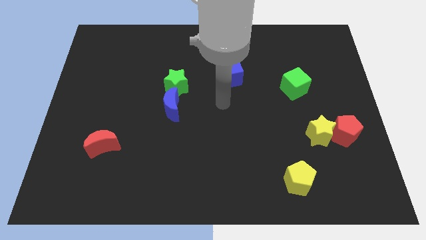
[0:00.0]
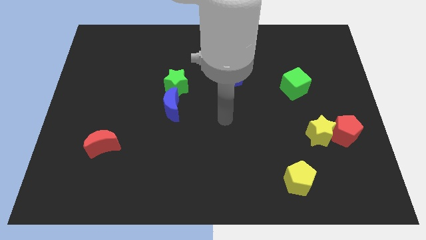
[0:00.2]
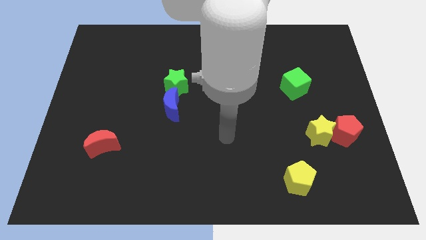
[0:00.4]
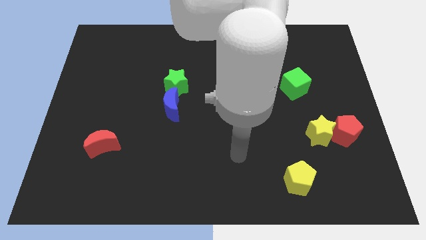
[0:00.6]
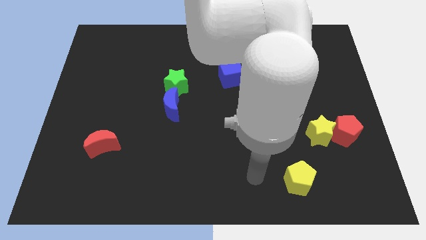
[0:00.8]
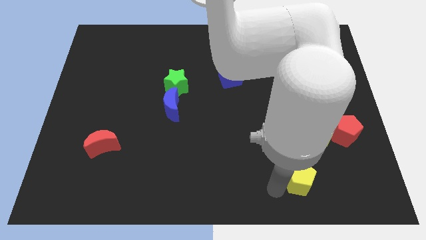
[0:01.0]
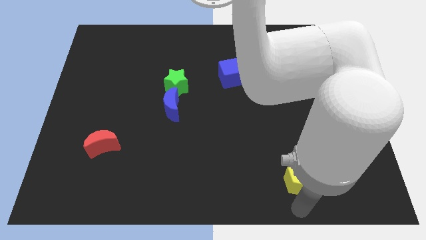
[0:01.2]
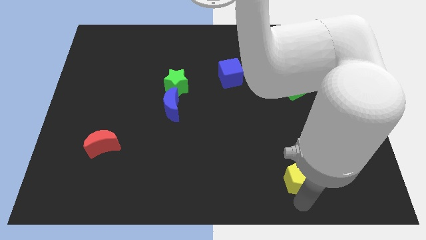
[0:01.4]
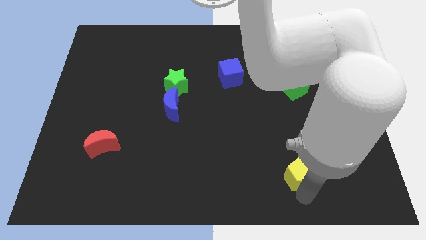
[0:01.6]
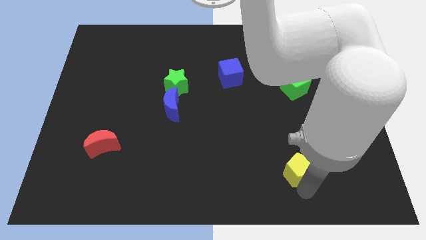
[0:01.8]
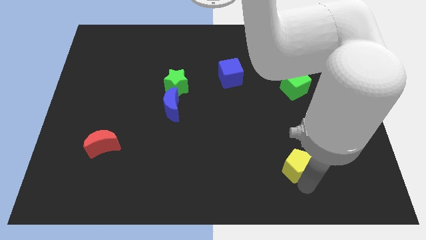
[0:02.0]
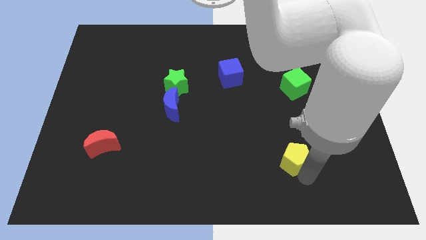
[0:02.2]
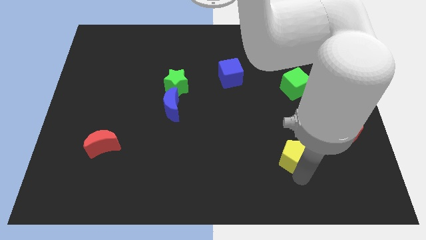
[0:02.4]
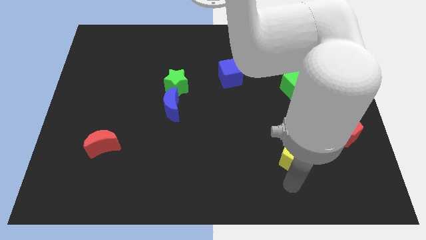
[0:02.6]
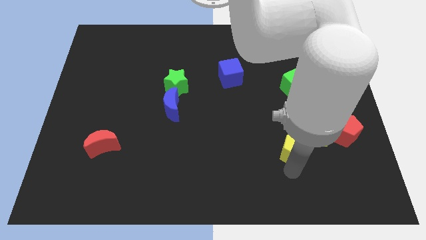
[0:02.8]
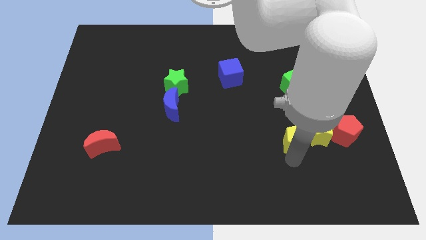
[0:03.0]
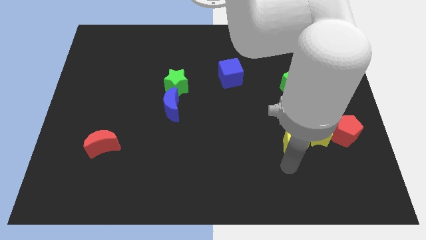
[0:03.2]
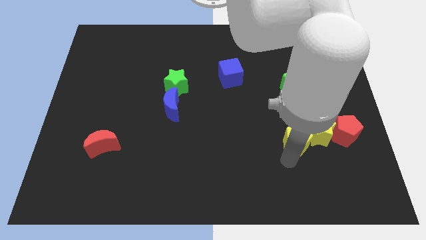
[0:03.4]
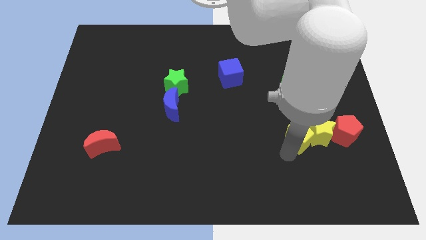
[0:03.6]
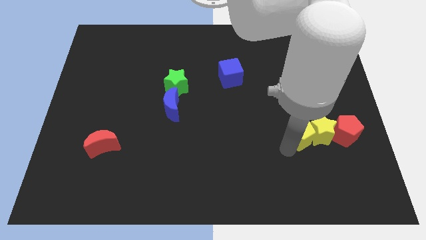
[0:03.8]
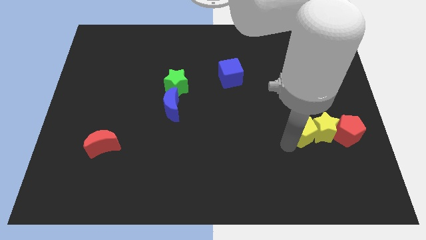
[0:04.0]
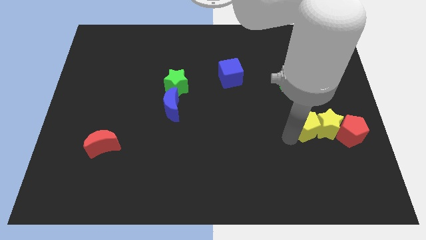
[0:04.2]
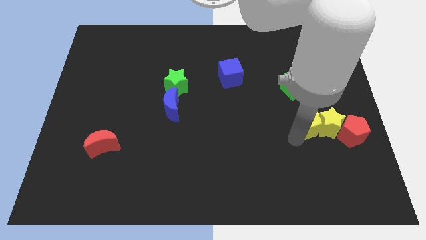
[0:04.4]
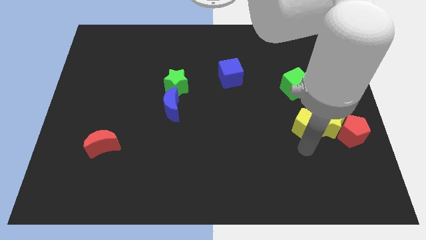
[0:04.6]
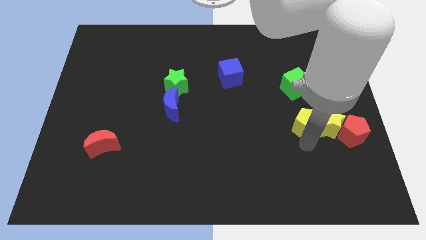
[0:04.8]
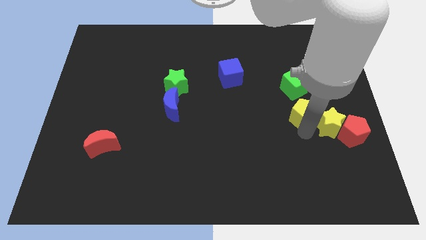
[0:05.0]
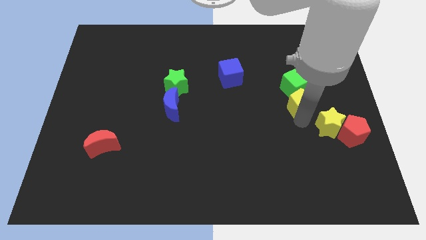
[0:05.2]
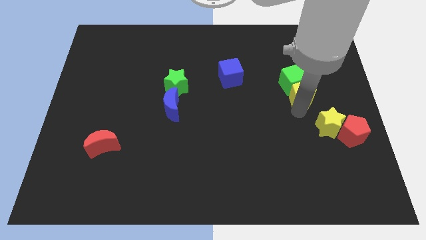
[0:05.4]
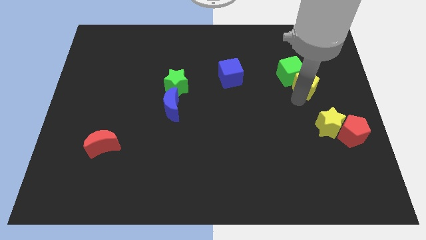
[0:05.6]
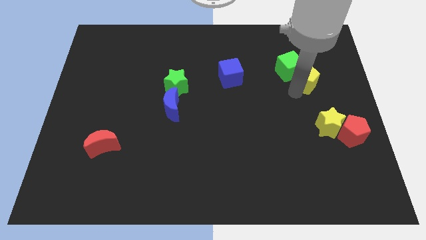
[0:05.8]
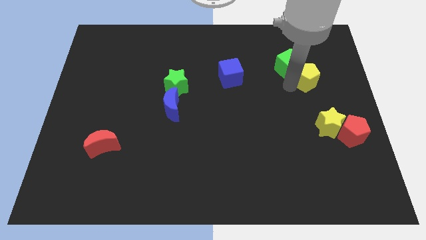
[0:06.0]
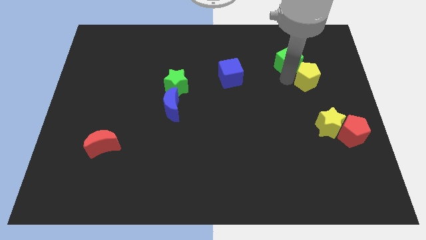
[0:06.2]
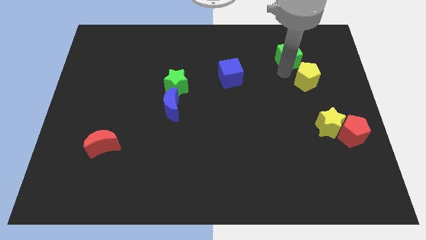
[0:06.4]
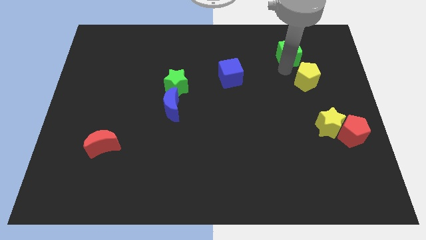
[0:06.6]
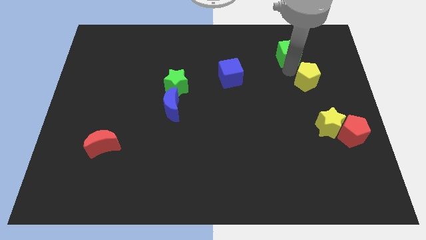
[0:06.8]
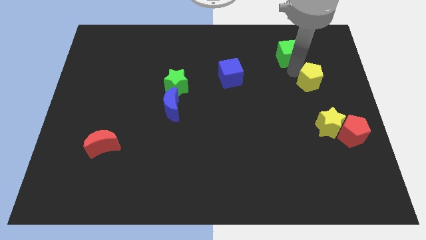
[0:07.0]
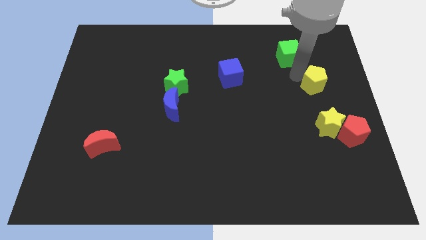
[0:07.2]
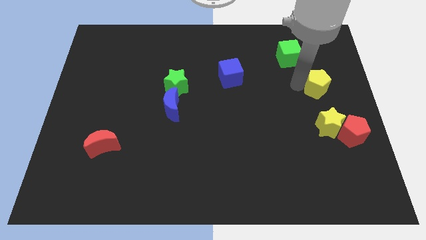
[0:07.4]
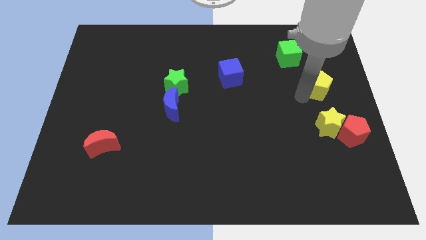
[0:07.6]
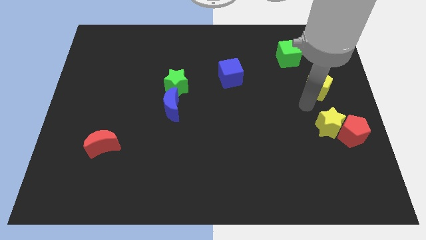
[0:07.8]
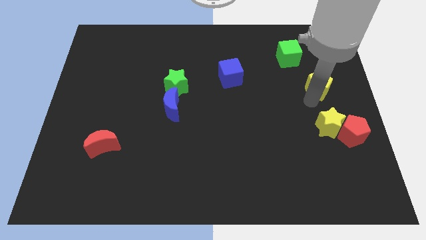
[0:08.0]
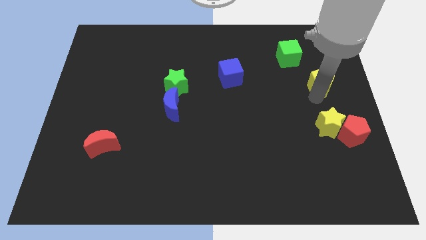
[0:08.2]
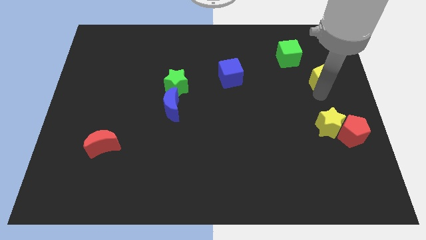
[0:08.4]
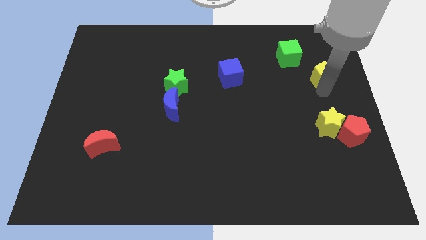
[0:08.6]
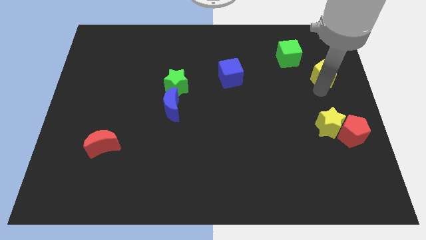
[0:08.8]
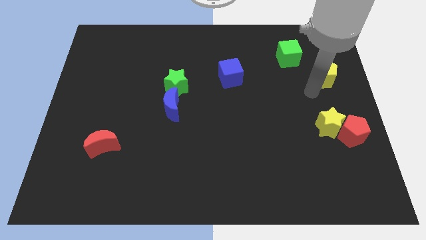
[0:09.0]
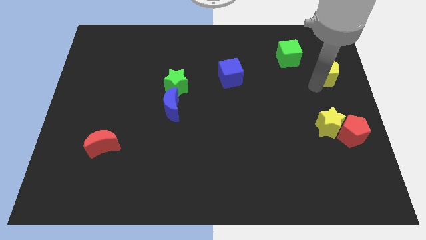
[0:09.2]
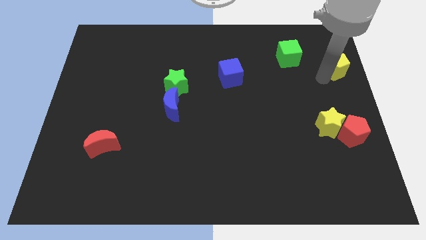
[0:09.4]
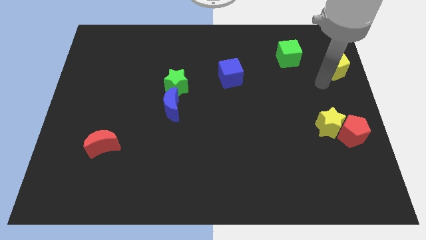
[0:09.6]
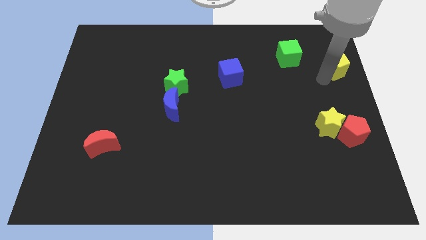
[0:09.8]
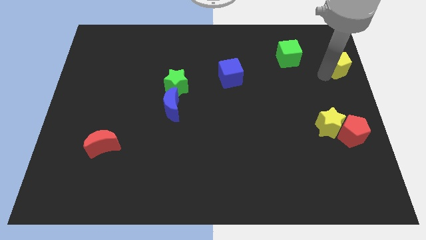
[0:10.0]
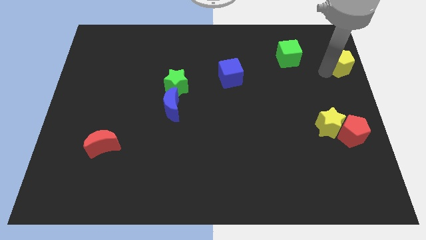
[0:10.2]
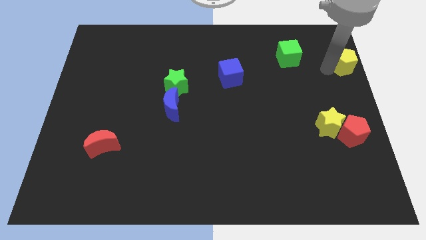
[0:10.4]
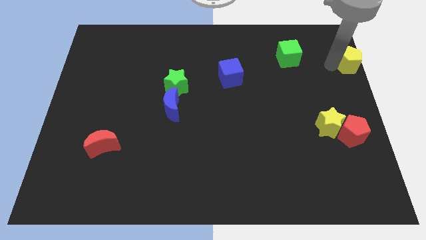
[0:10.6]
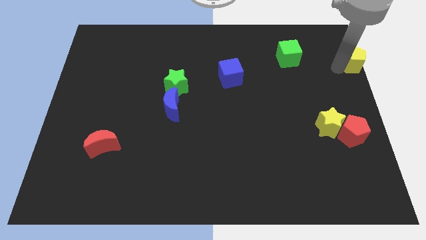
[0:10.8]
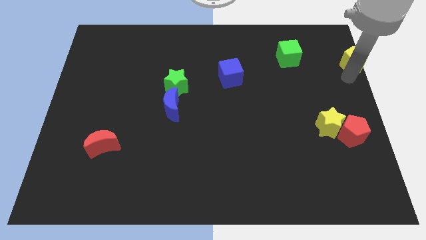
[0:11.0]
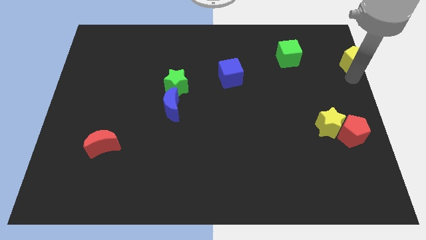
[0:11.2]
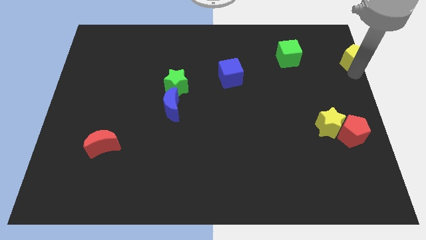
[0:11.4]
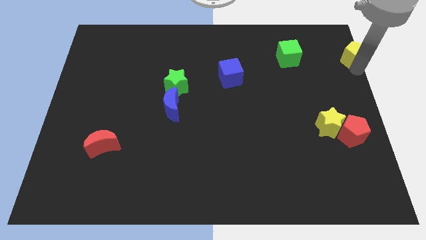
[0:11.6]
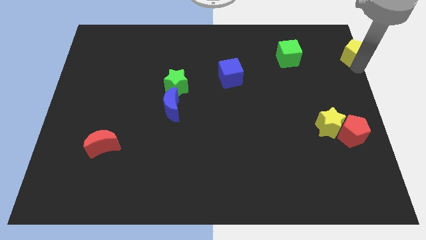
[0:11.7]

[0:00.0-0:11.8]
push the yellow pentagon to the upper right corner
